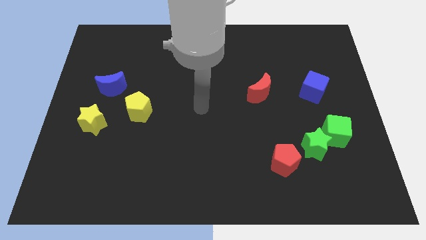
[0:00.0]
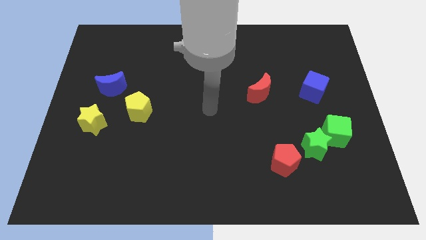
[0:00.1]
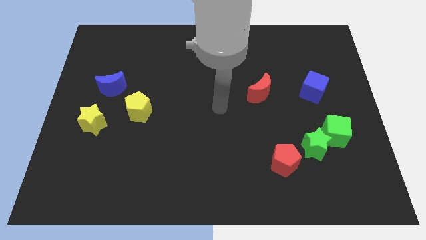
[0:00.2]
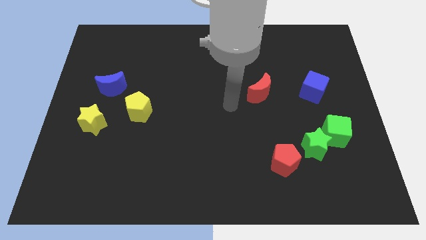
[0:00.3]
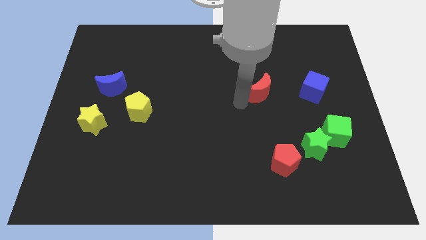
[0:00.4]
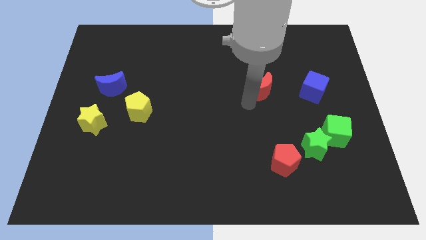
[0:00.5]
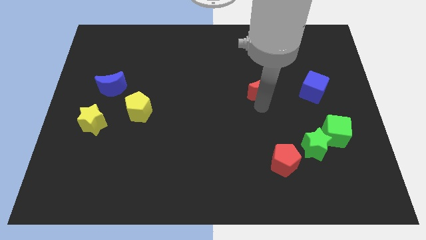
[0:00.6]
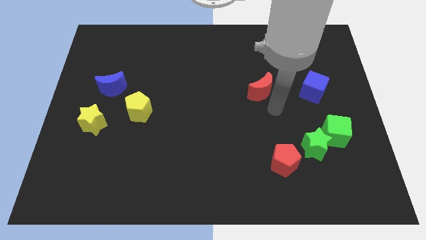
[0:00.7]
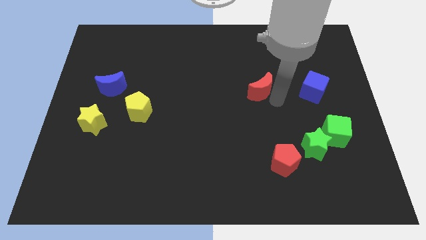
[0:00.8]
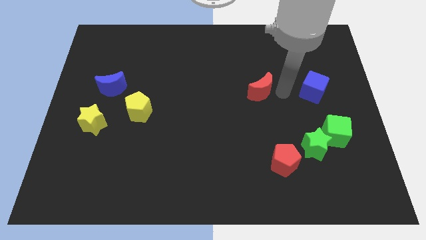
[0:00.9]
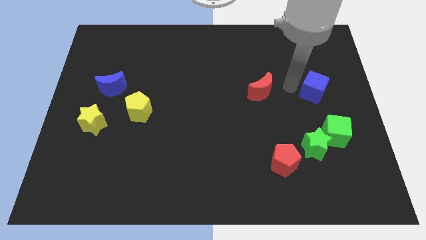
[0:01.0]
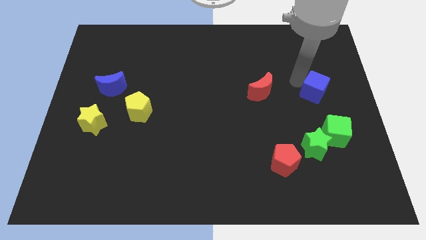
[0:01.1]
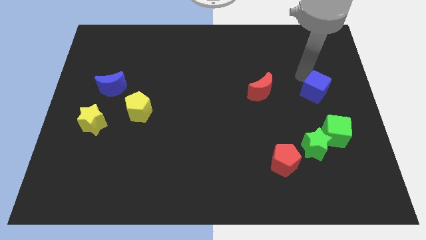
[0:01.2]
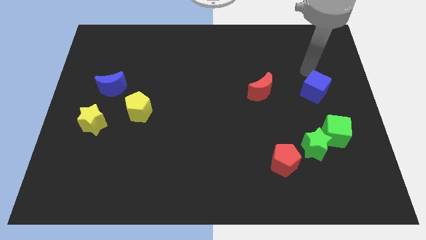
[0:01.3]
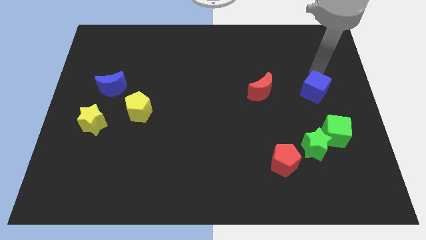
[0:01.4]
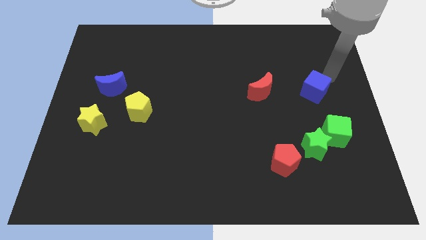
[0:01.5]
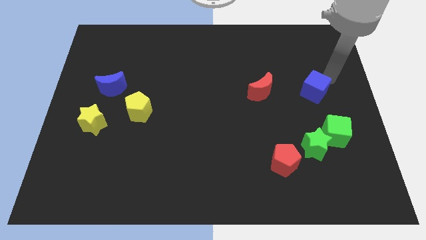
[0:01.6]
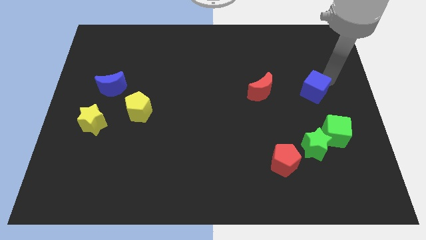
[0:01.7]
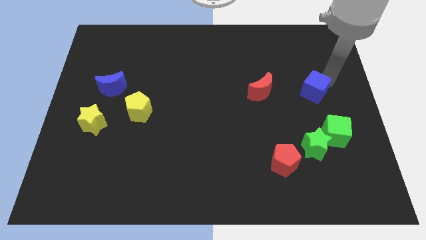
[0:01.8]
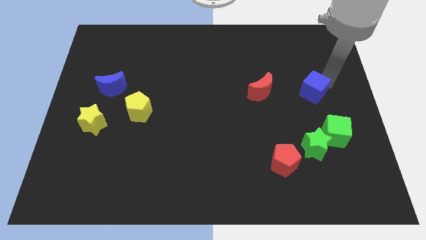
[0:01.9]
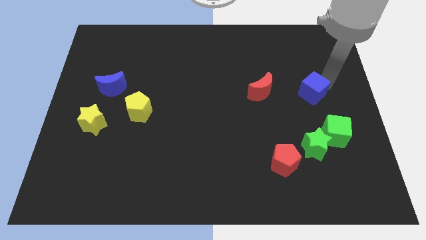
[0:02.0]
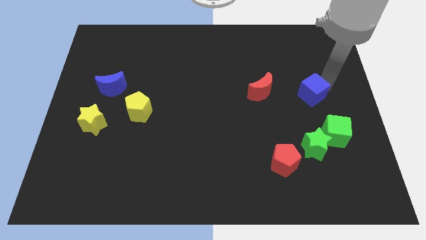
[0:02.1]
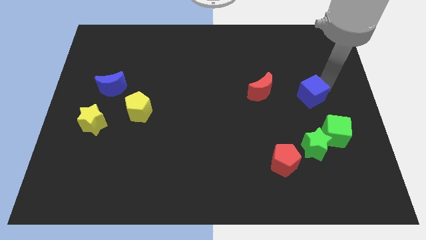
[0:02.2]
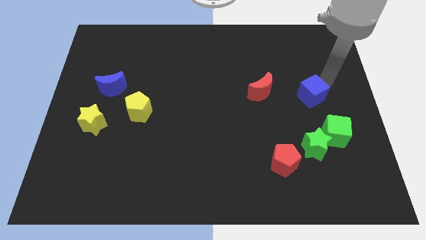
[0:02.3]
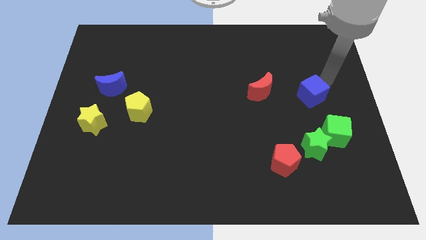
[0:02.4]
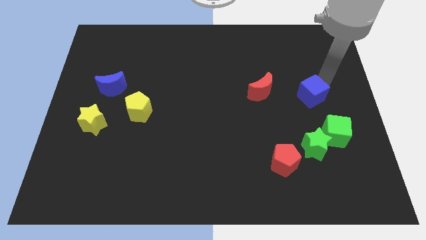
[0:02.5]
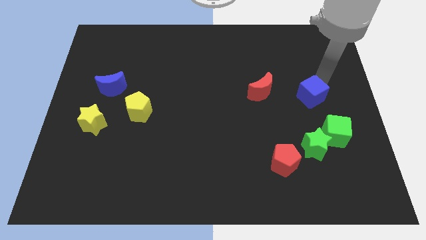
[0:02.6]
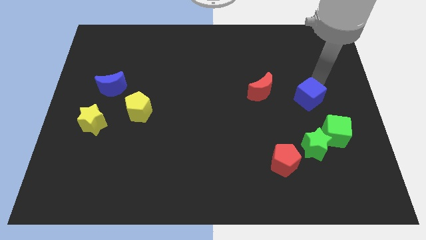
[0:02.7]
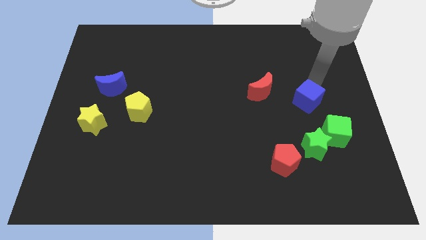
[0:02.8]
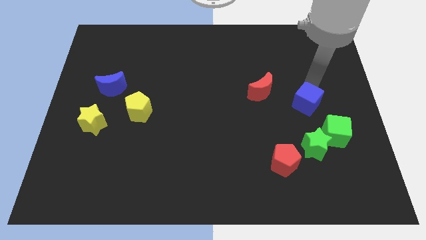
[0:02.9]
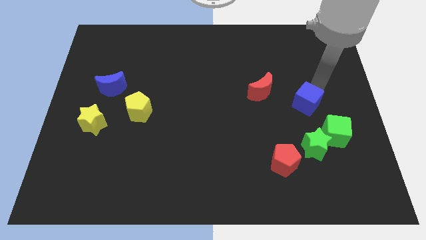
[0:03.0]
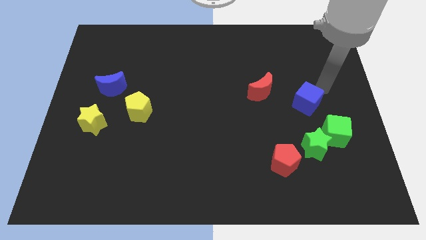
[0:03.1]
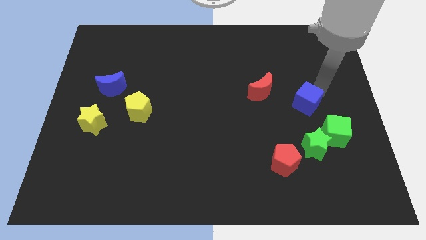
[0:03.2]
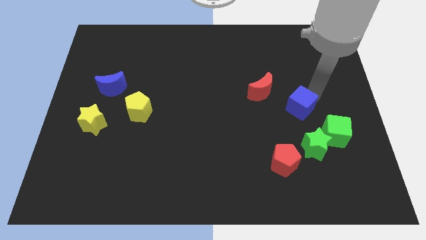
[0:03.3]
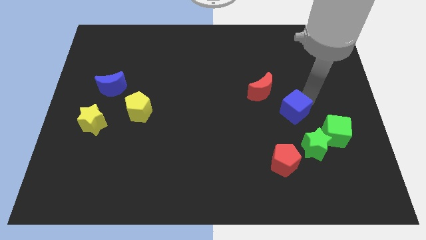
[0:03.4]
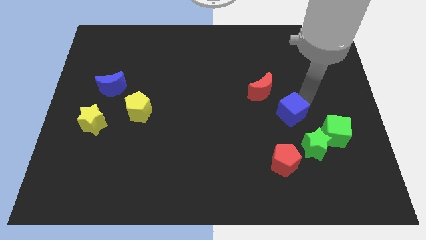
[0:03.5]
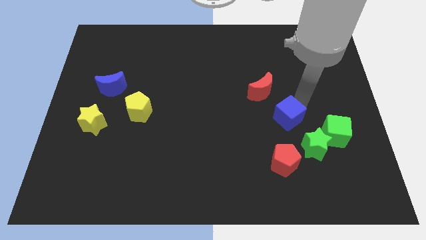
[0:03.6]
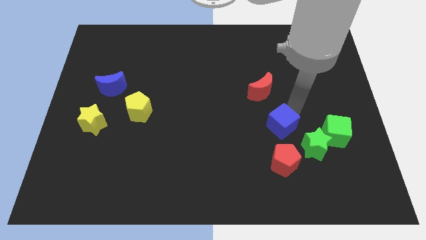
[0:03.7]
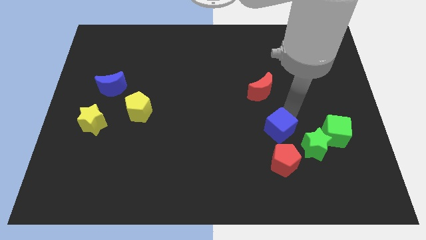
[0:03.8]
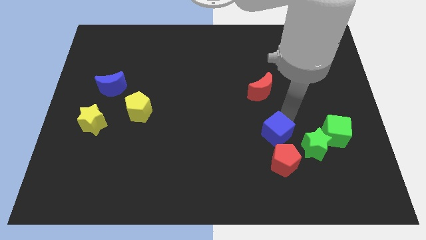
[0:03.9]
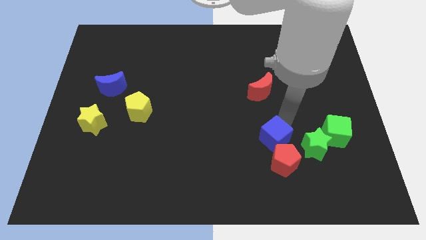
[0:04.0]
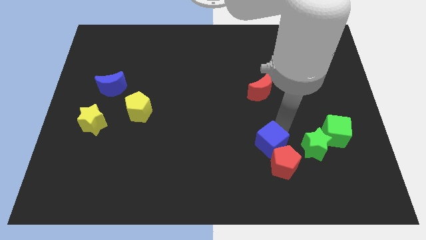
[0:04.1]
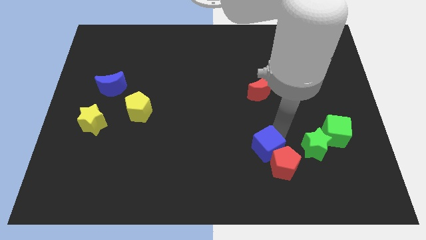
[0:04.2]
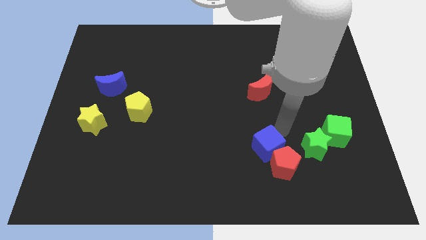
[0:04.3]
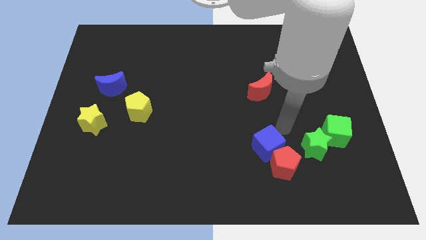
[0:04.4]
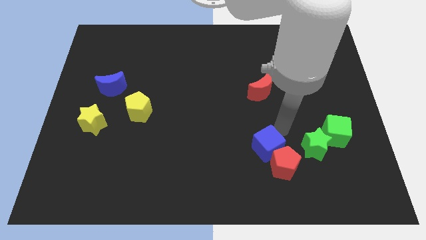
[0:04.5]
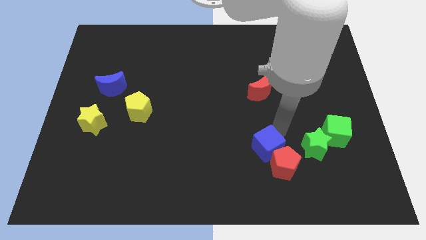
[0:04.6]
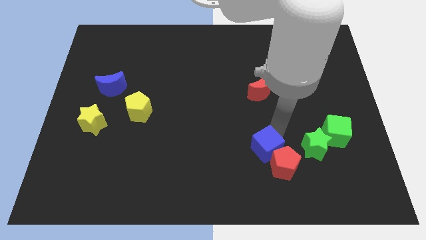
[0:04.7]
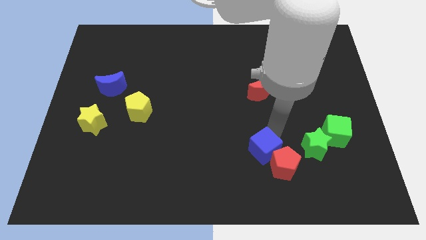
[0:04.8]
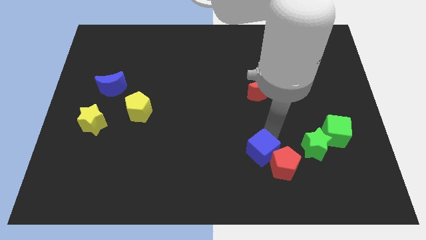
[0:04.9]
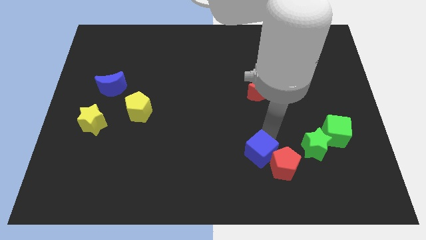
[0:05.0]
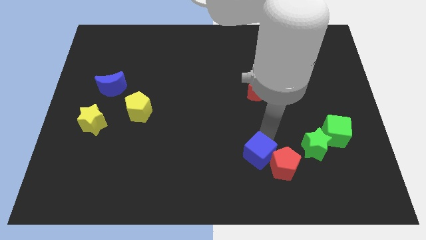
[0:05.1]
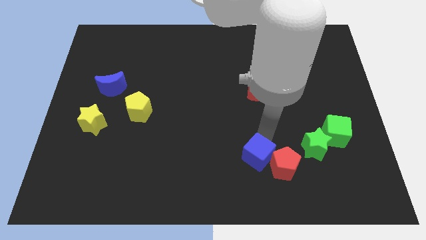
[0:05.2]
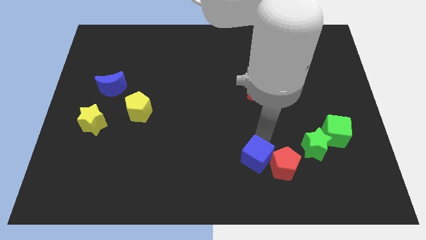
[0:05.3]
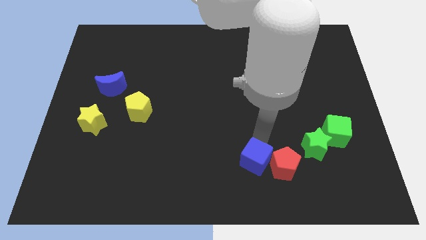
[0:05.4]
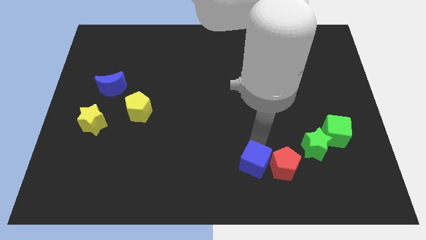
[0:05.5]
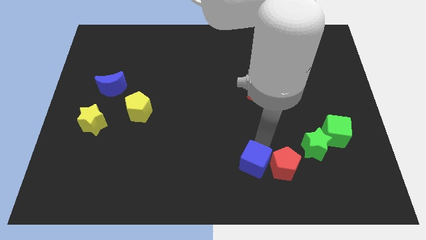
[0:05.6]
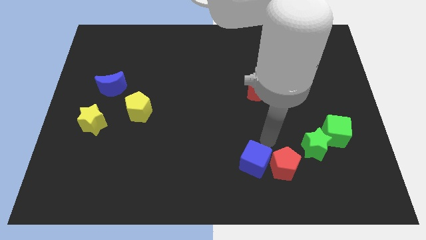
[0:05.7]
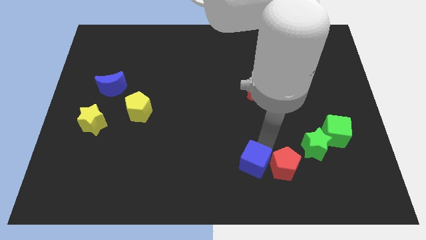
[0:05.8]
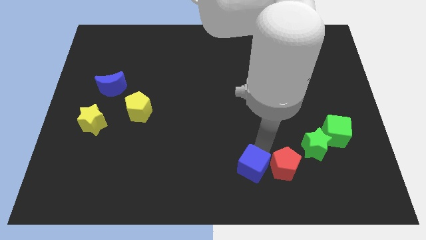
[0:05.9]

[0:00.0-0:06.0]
slide the blue cube to the bottom

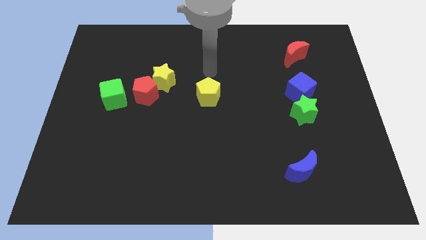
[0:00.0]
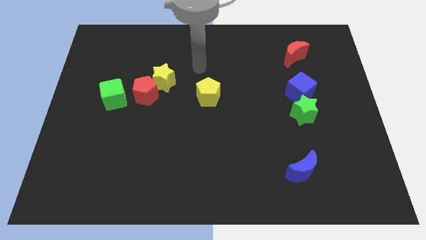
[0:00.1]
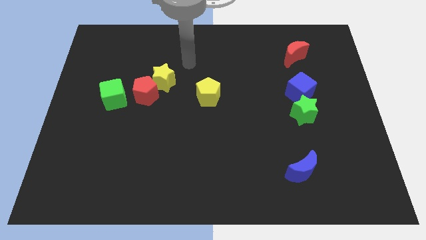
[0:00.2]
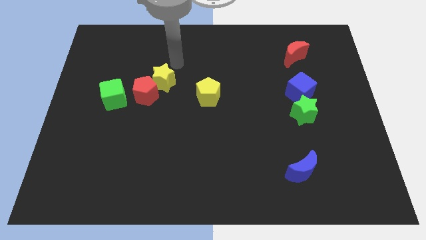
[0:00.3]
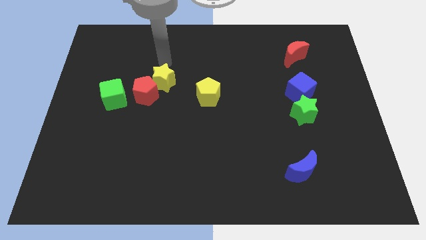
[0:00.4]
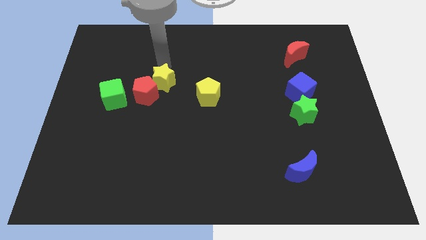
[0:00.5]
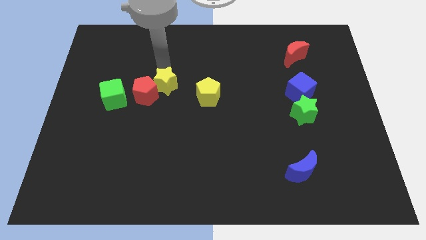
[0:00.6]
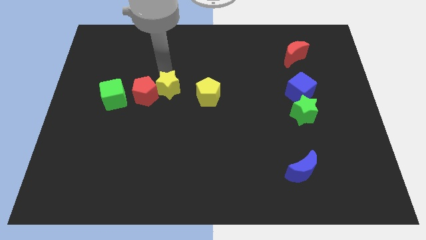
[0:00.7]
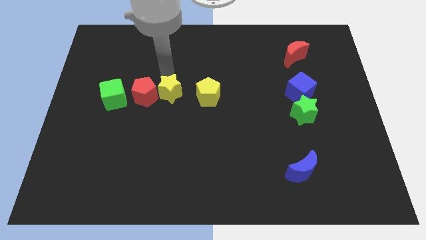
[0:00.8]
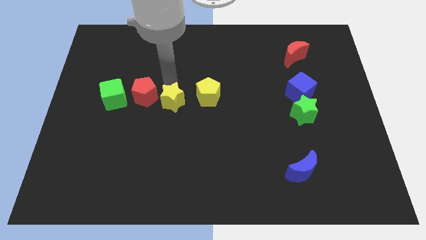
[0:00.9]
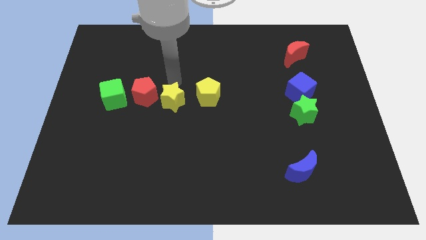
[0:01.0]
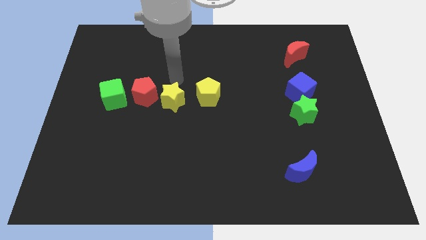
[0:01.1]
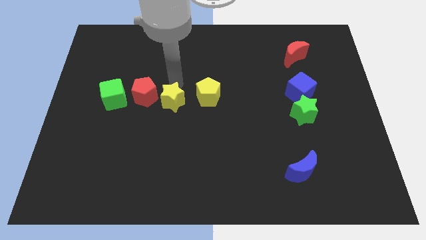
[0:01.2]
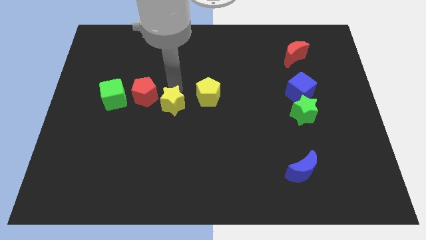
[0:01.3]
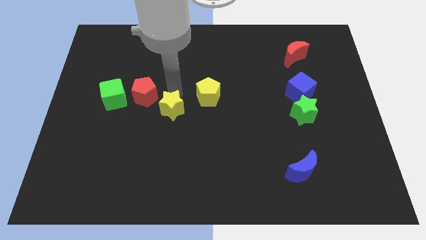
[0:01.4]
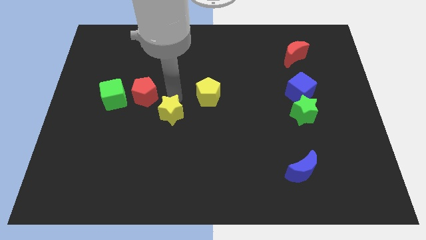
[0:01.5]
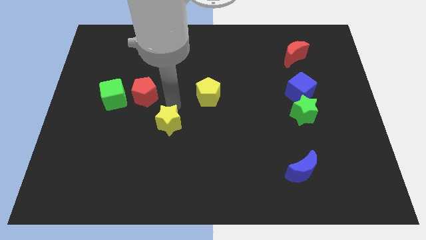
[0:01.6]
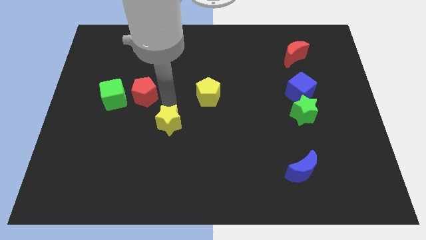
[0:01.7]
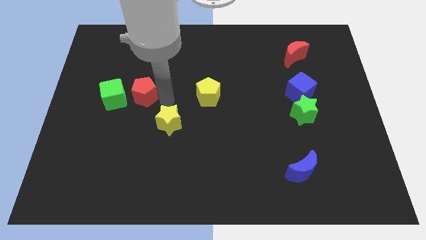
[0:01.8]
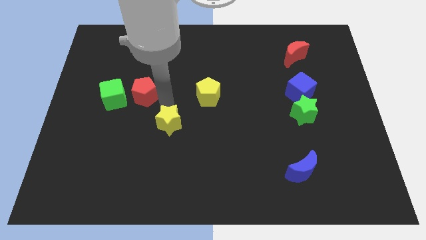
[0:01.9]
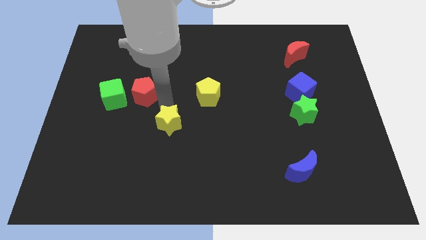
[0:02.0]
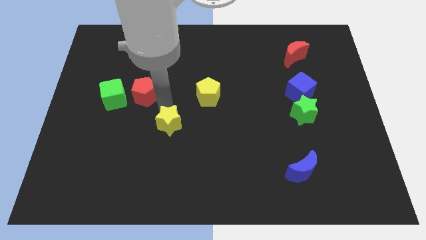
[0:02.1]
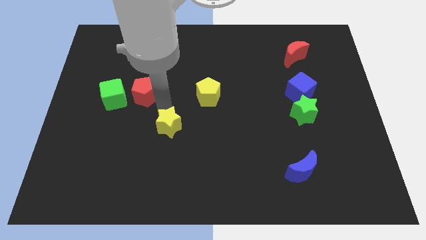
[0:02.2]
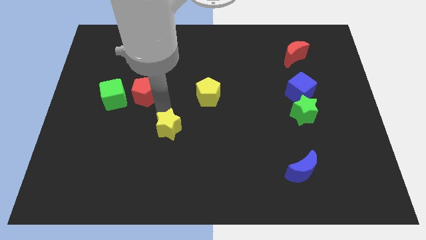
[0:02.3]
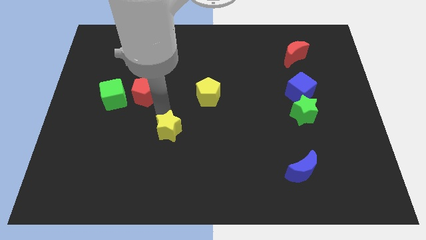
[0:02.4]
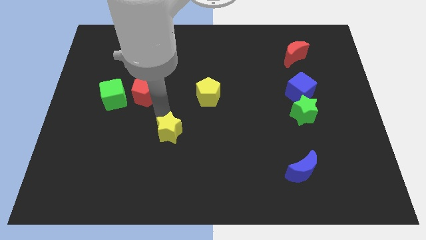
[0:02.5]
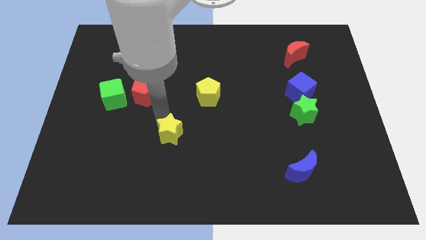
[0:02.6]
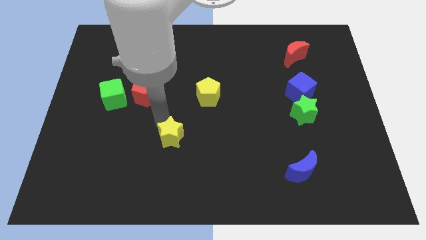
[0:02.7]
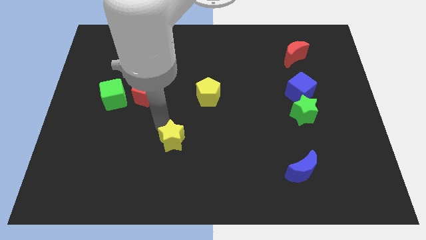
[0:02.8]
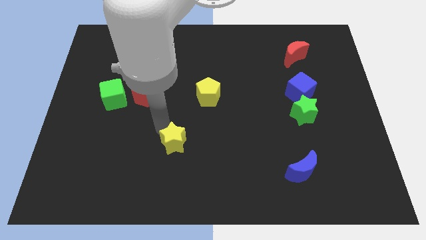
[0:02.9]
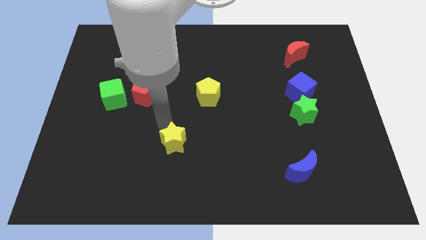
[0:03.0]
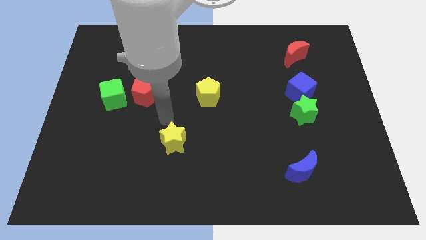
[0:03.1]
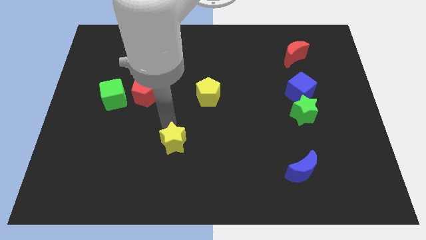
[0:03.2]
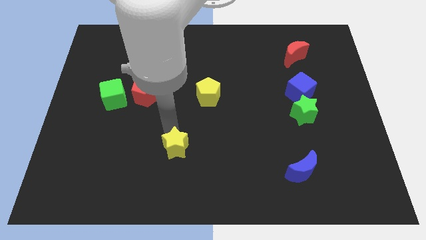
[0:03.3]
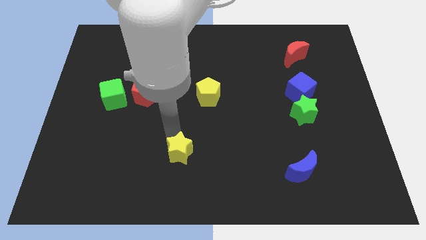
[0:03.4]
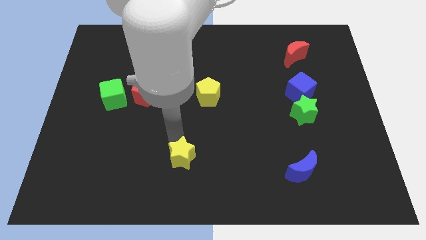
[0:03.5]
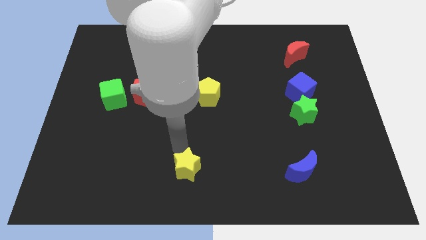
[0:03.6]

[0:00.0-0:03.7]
move the yellow star to the bottom side
